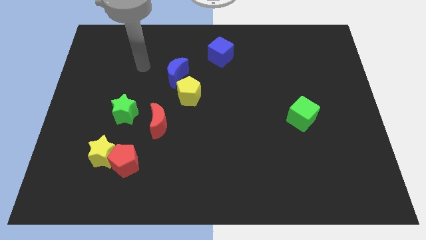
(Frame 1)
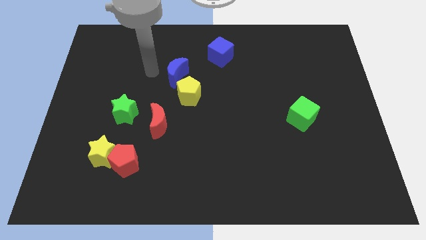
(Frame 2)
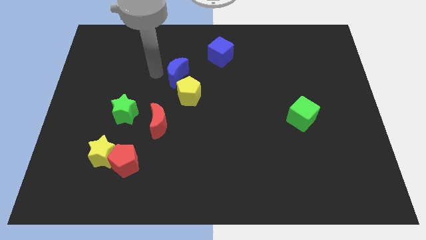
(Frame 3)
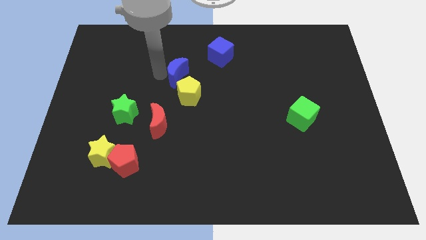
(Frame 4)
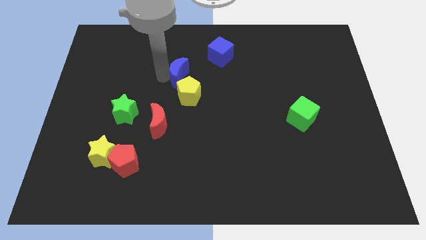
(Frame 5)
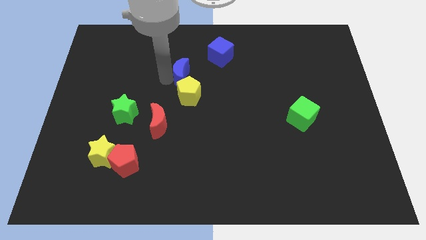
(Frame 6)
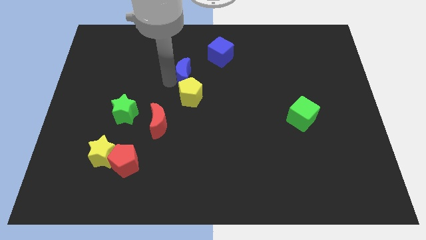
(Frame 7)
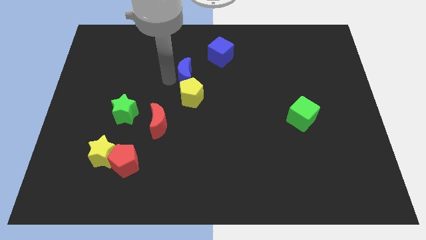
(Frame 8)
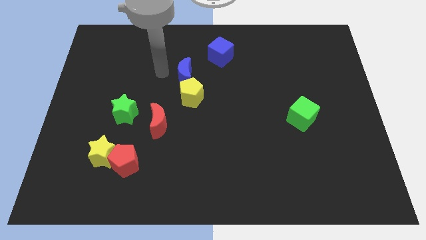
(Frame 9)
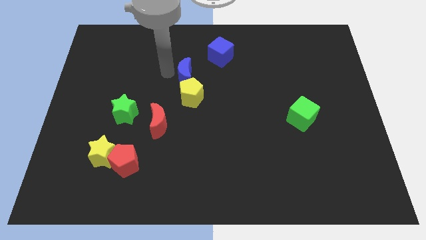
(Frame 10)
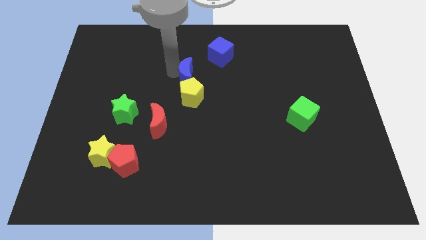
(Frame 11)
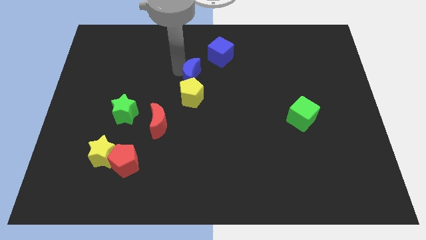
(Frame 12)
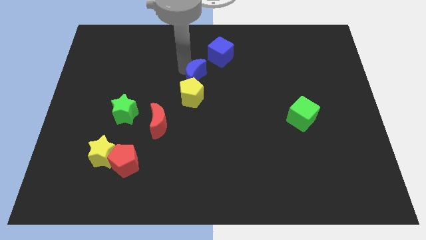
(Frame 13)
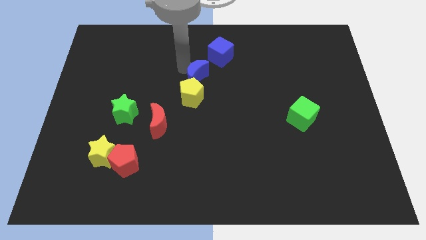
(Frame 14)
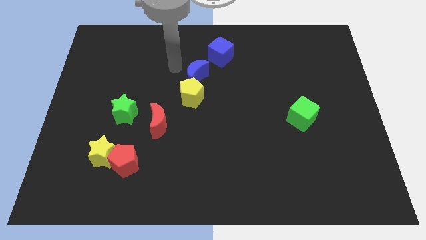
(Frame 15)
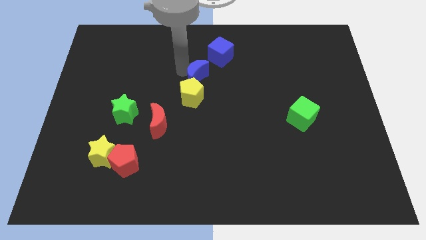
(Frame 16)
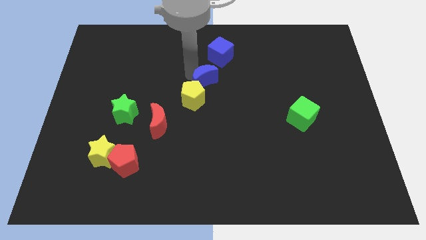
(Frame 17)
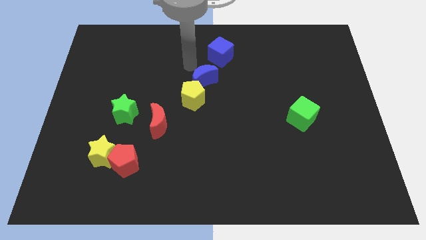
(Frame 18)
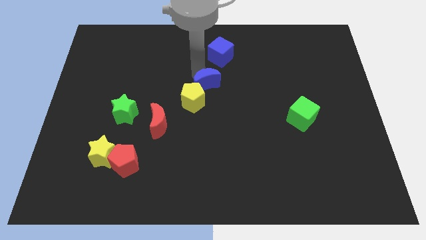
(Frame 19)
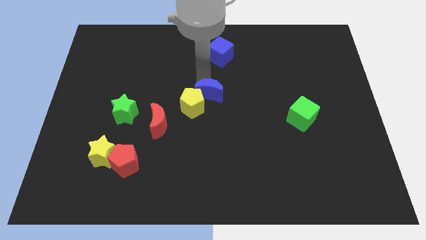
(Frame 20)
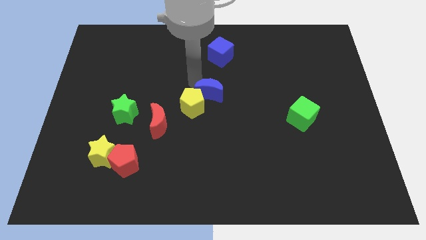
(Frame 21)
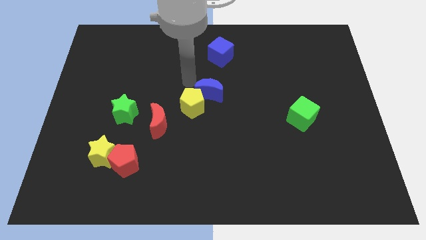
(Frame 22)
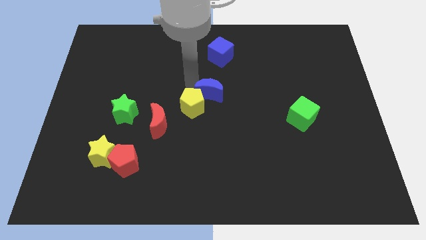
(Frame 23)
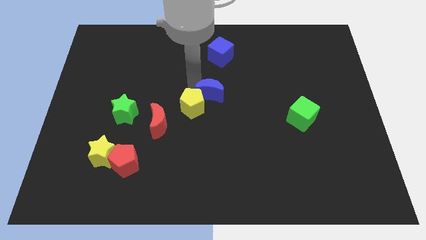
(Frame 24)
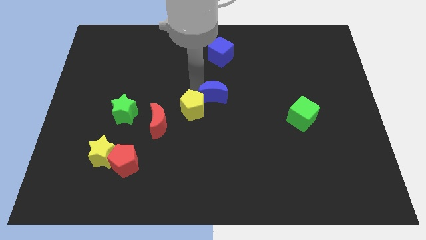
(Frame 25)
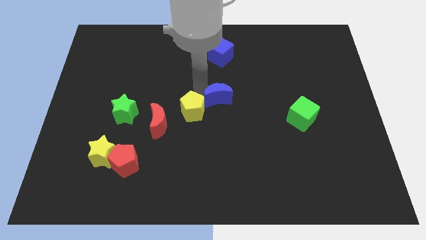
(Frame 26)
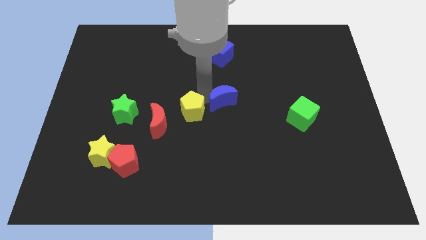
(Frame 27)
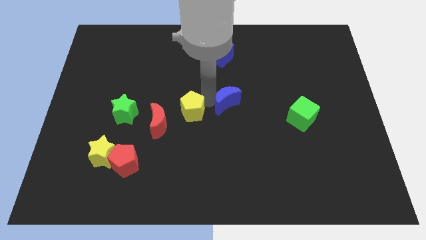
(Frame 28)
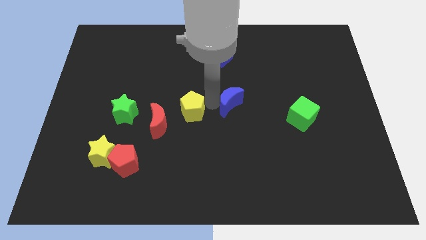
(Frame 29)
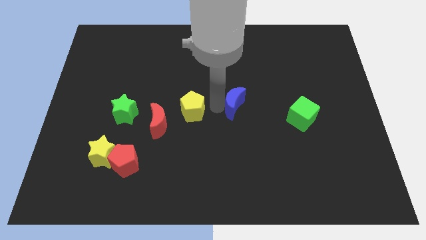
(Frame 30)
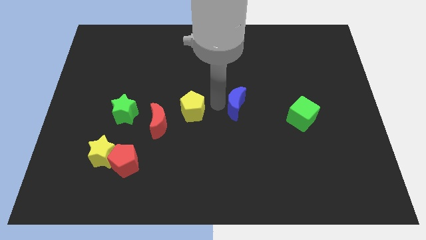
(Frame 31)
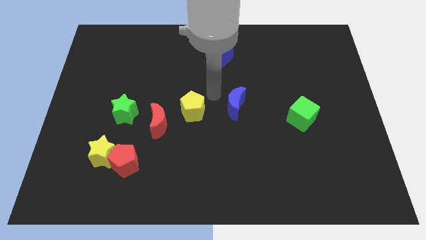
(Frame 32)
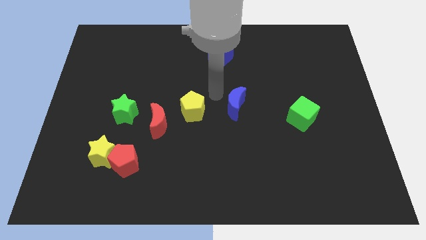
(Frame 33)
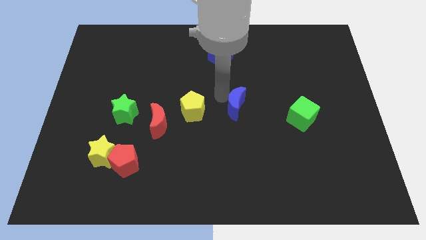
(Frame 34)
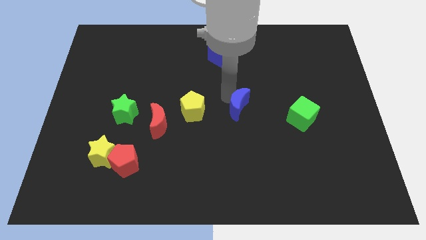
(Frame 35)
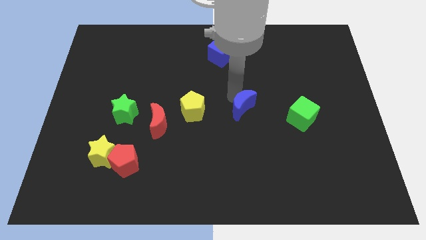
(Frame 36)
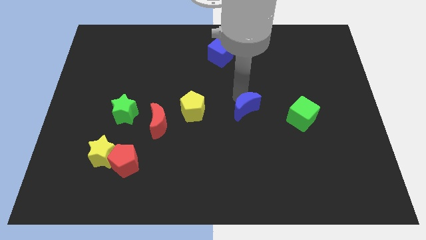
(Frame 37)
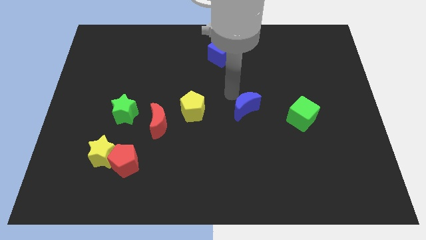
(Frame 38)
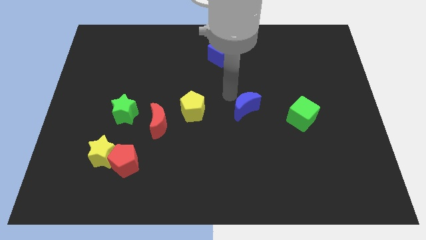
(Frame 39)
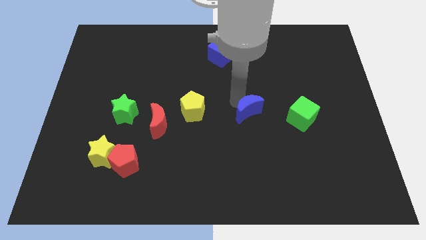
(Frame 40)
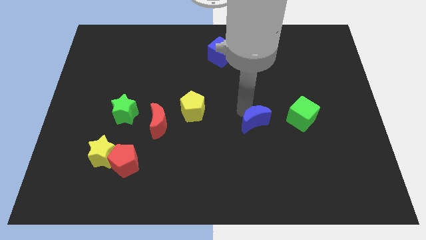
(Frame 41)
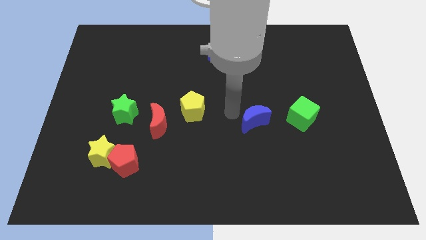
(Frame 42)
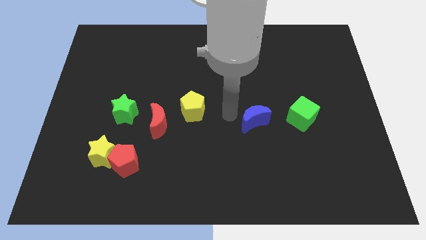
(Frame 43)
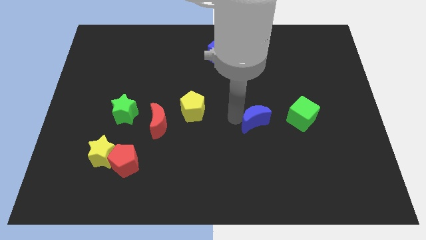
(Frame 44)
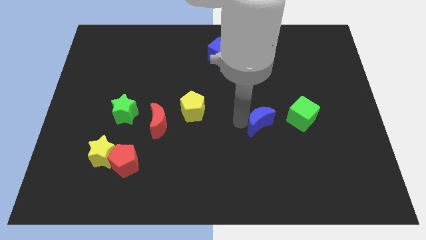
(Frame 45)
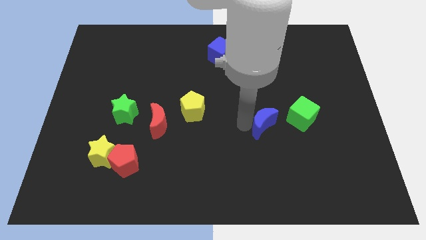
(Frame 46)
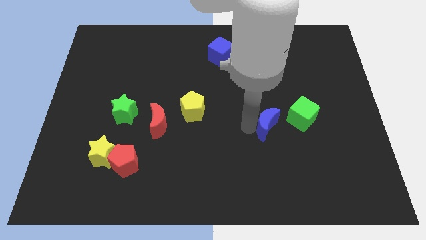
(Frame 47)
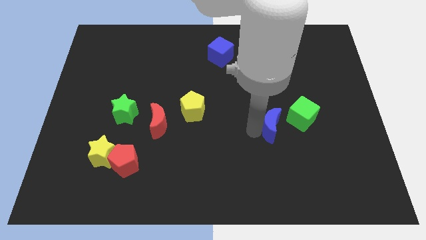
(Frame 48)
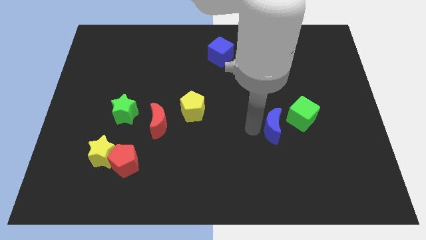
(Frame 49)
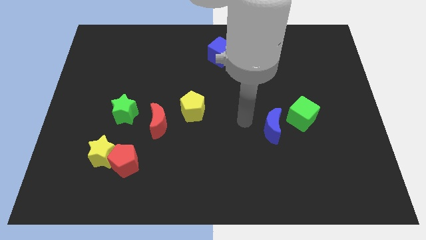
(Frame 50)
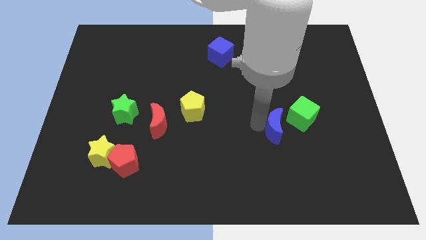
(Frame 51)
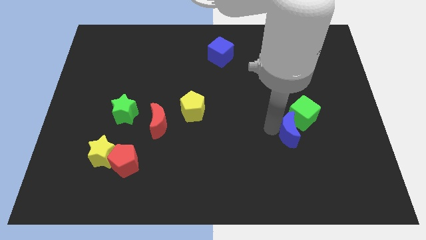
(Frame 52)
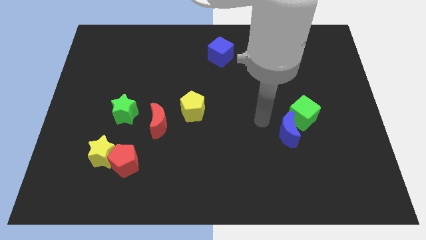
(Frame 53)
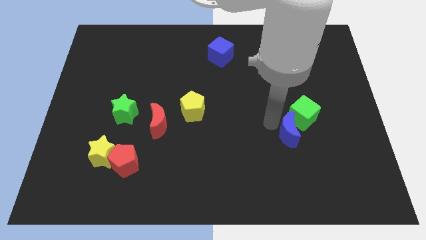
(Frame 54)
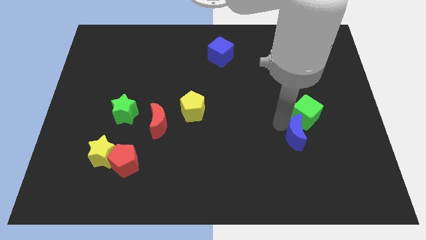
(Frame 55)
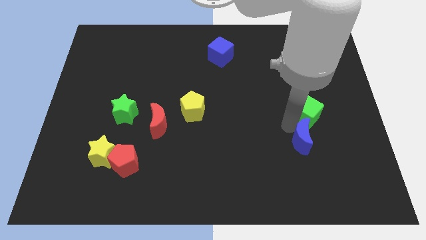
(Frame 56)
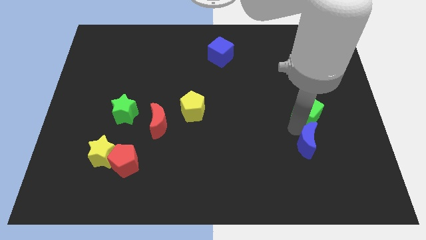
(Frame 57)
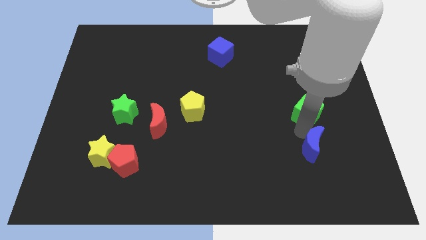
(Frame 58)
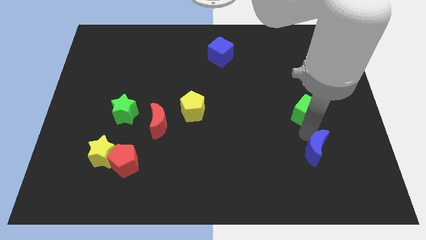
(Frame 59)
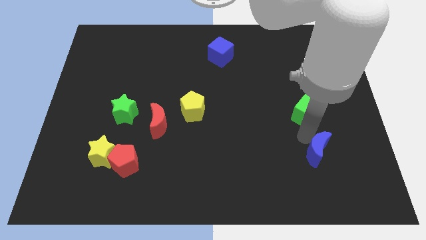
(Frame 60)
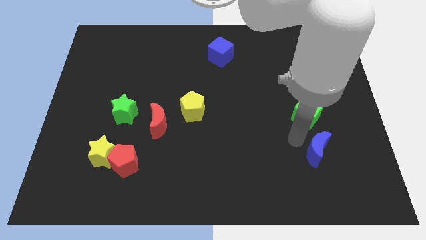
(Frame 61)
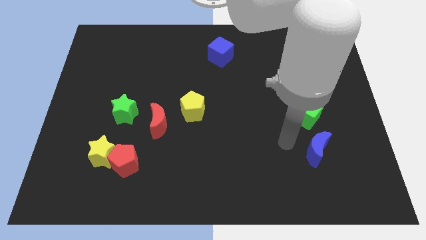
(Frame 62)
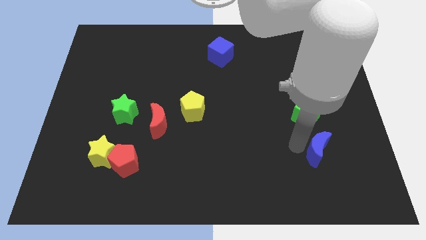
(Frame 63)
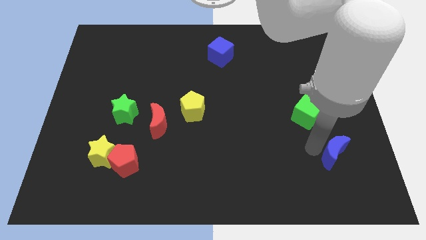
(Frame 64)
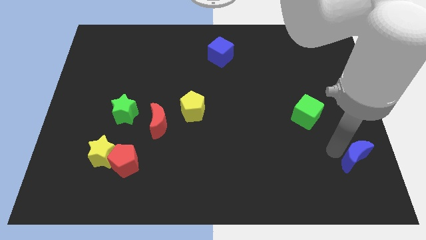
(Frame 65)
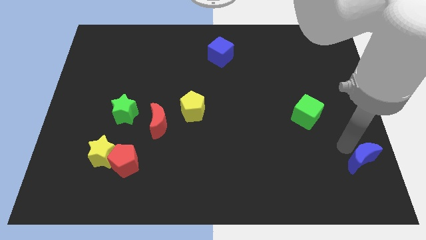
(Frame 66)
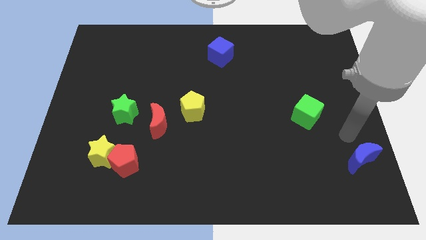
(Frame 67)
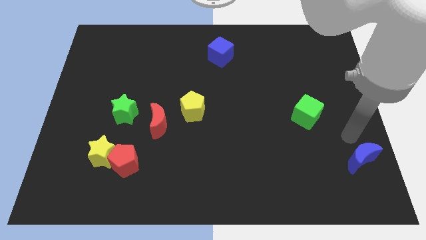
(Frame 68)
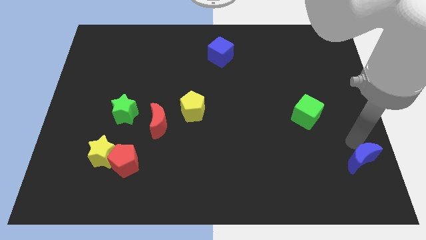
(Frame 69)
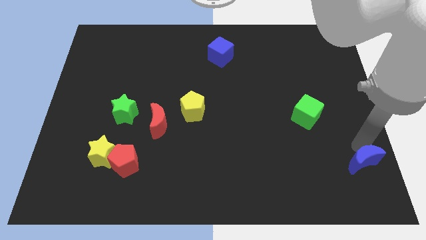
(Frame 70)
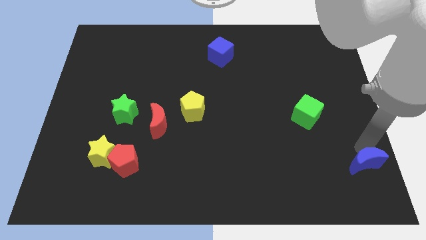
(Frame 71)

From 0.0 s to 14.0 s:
move the blue moon to the bottom right

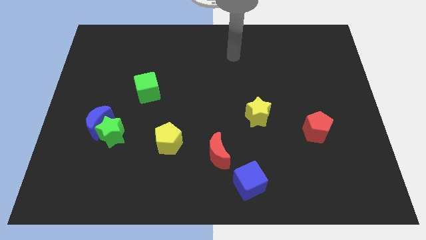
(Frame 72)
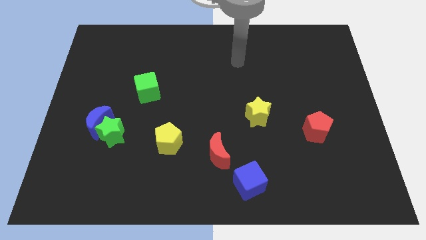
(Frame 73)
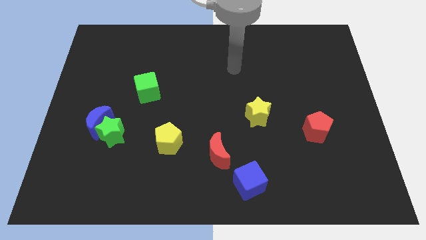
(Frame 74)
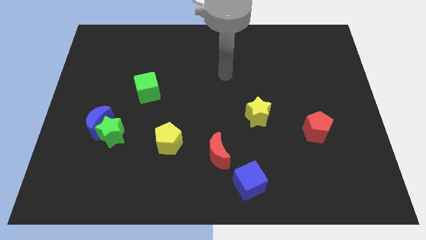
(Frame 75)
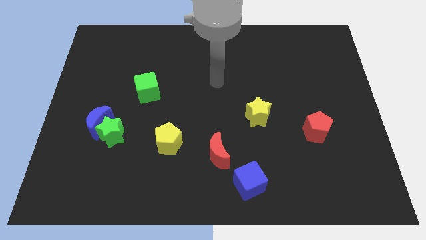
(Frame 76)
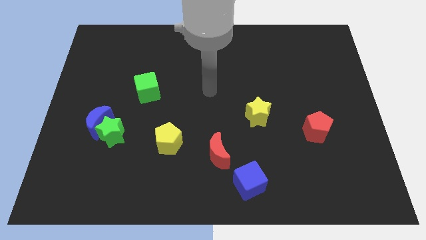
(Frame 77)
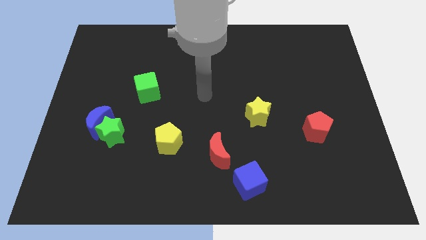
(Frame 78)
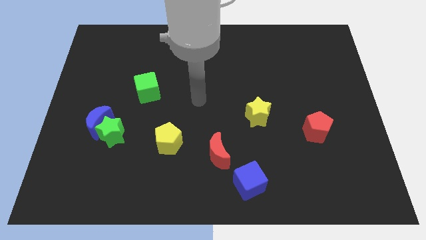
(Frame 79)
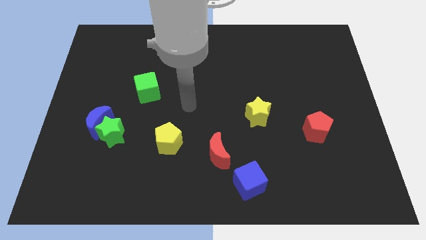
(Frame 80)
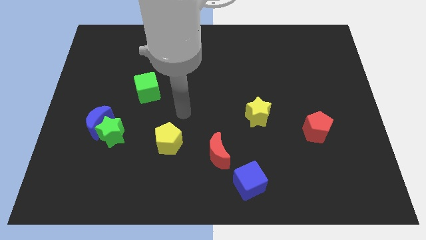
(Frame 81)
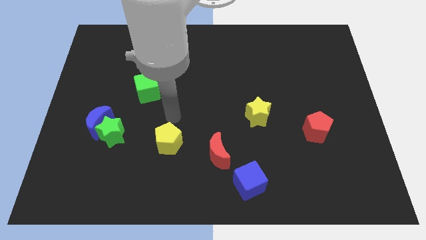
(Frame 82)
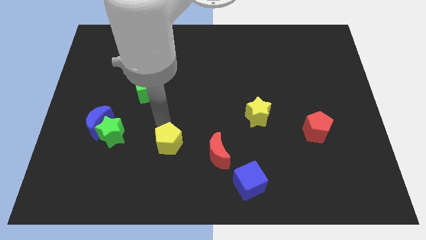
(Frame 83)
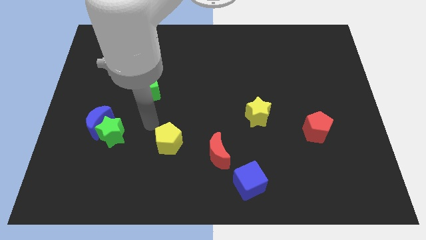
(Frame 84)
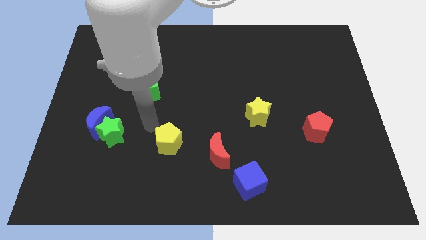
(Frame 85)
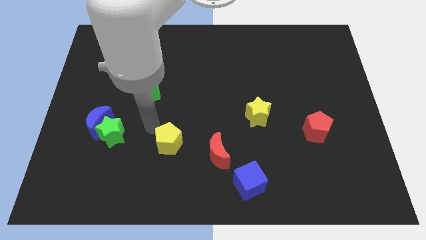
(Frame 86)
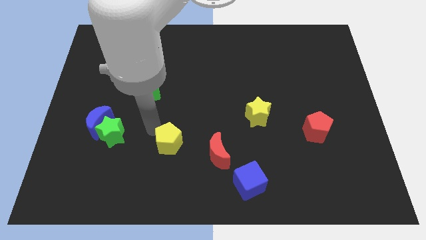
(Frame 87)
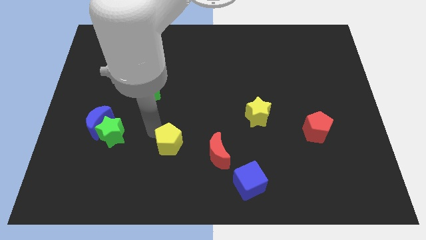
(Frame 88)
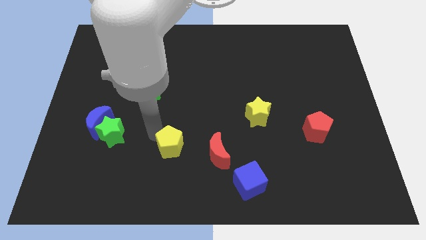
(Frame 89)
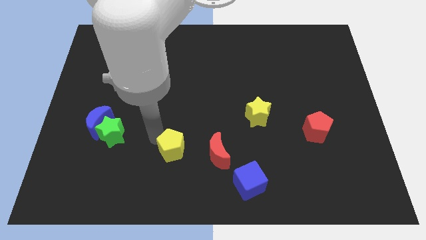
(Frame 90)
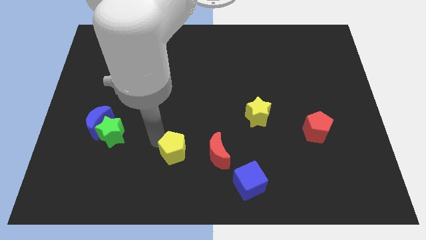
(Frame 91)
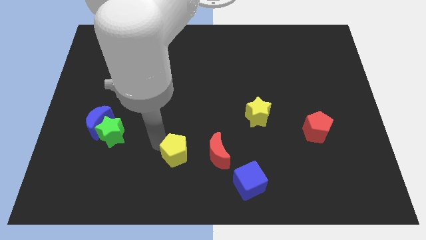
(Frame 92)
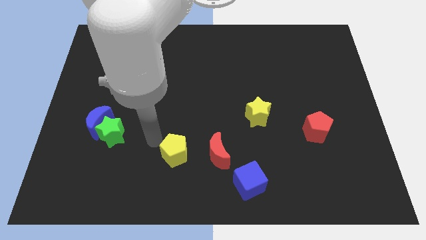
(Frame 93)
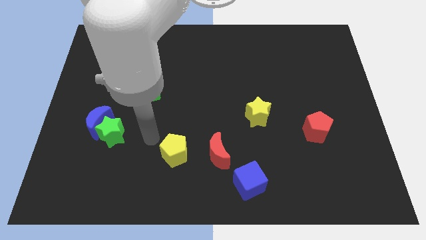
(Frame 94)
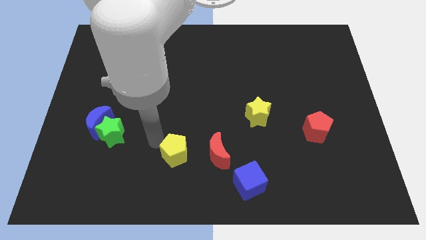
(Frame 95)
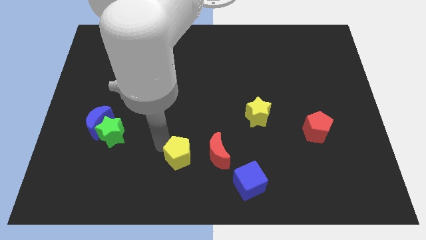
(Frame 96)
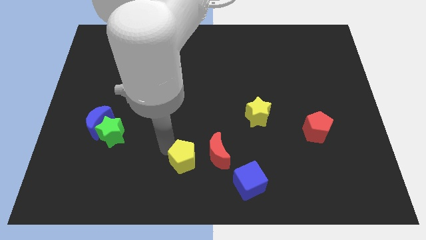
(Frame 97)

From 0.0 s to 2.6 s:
put the yellow pentagon to the bottom side
